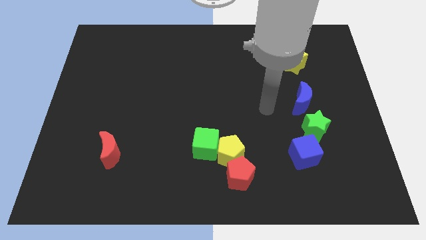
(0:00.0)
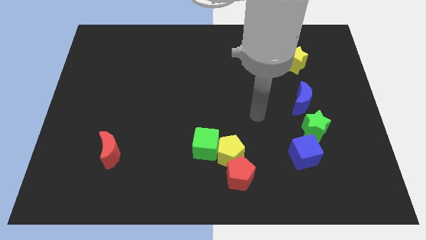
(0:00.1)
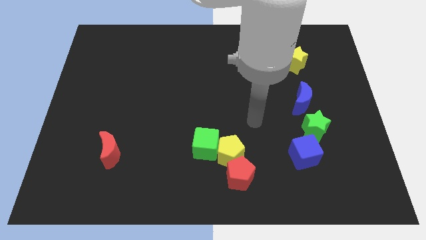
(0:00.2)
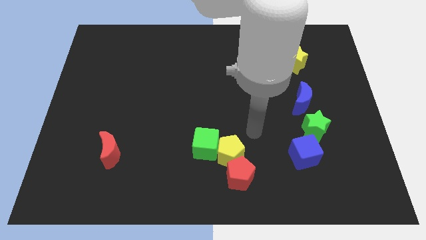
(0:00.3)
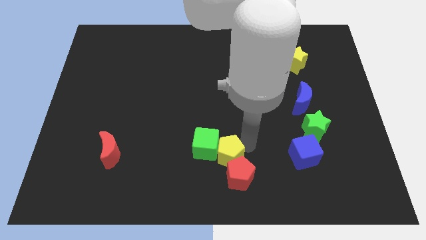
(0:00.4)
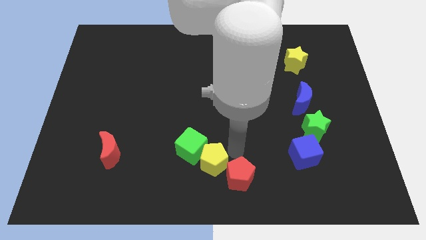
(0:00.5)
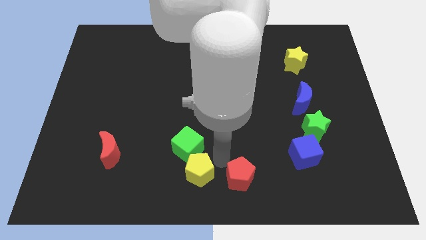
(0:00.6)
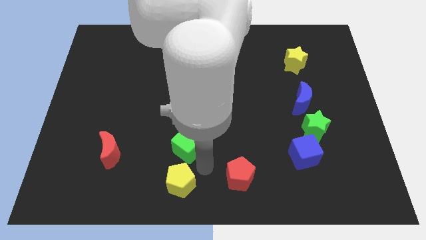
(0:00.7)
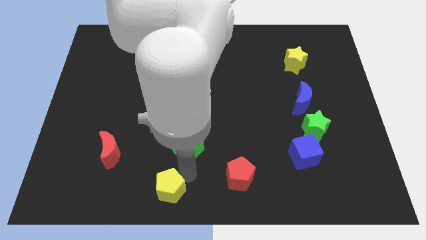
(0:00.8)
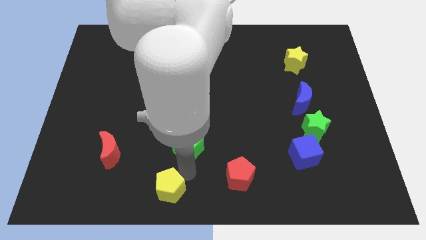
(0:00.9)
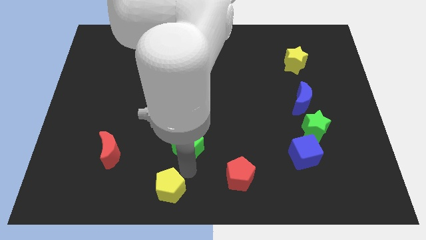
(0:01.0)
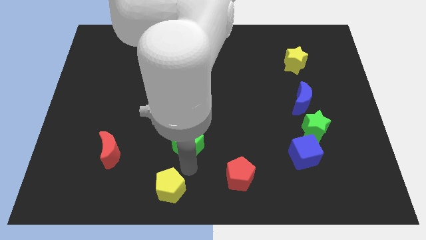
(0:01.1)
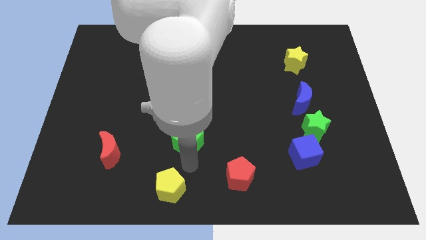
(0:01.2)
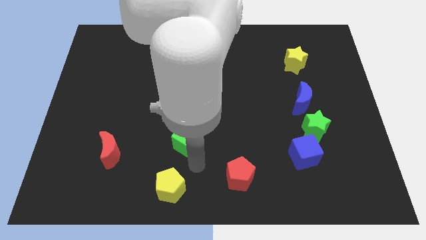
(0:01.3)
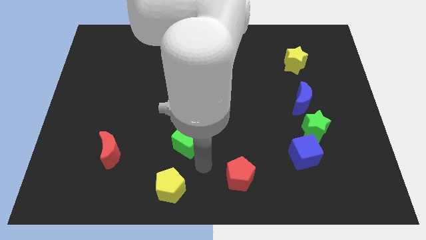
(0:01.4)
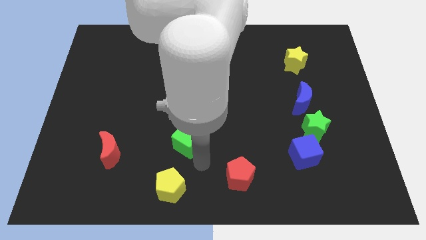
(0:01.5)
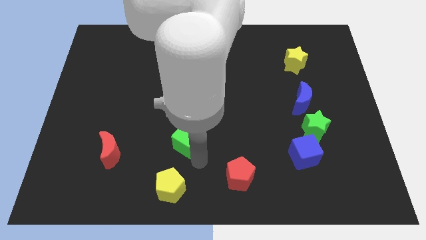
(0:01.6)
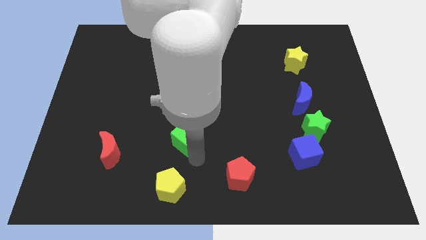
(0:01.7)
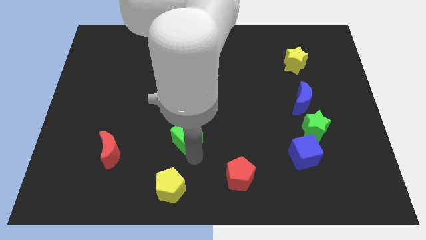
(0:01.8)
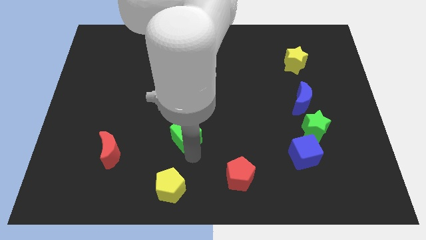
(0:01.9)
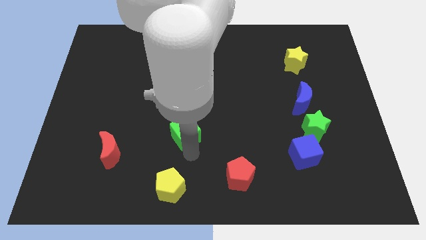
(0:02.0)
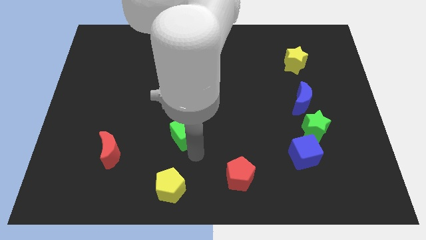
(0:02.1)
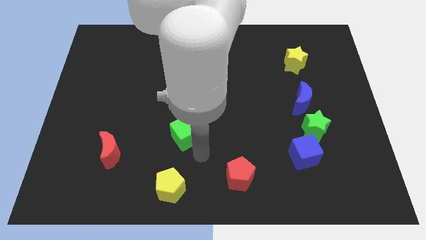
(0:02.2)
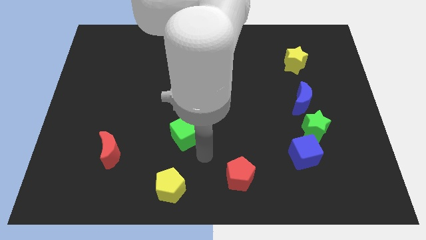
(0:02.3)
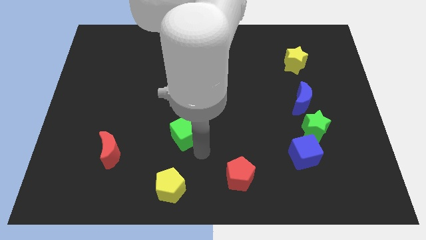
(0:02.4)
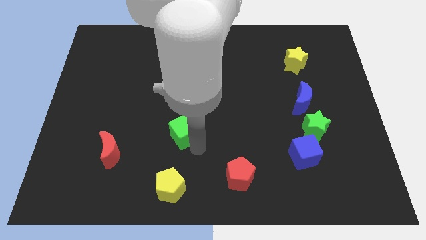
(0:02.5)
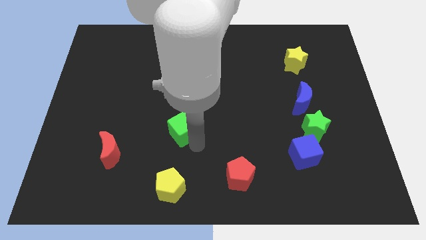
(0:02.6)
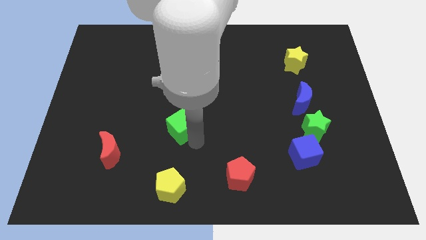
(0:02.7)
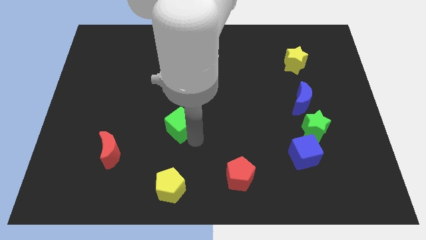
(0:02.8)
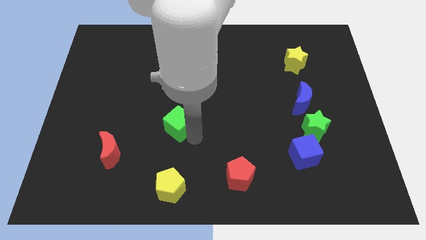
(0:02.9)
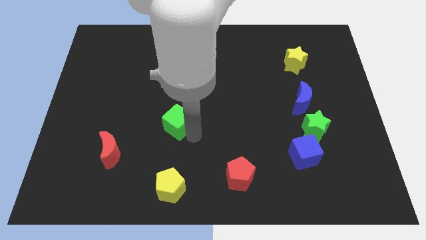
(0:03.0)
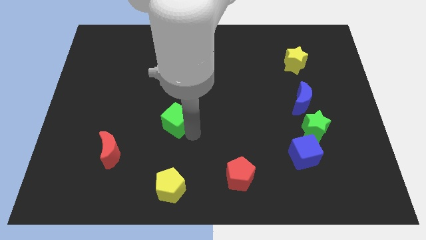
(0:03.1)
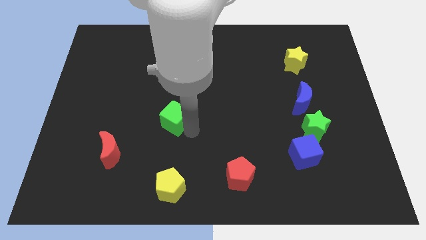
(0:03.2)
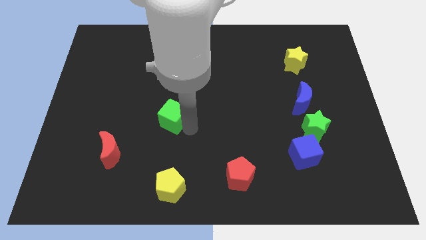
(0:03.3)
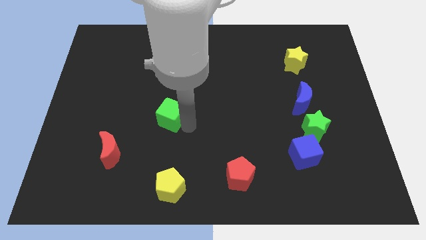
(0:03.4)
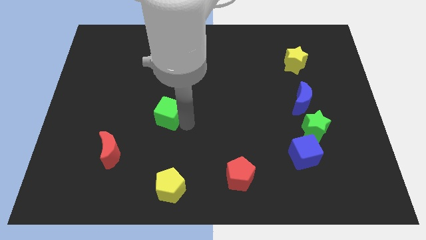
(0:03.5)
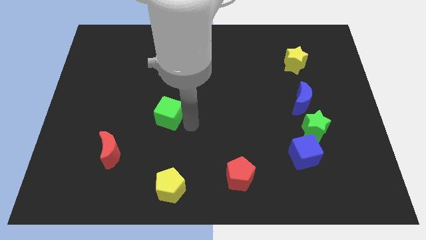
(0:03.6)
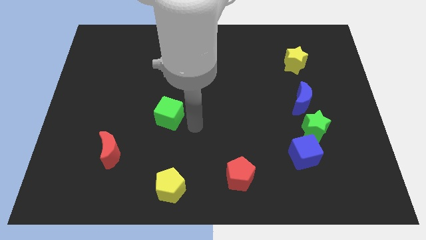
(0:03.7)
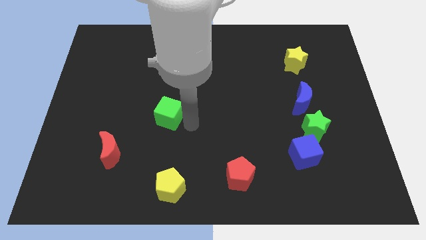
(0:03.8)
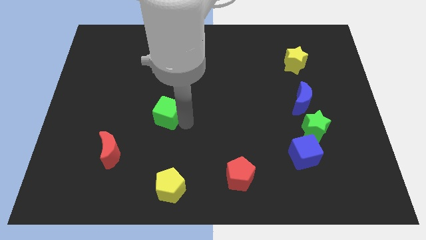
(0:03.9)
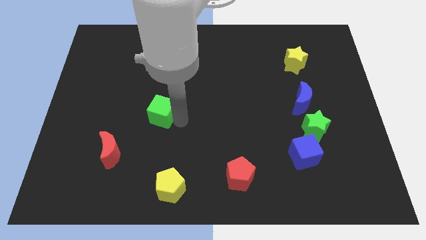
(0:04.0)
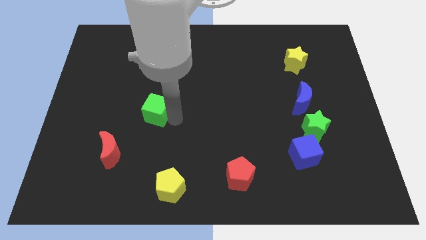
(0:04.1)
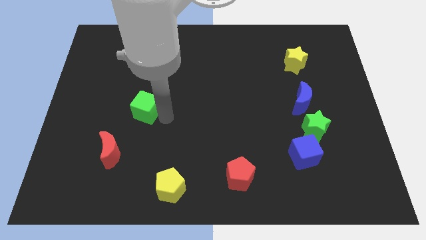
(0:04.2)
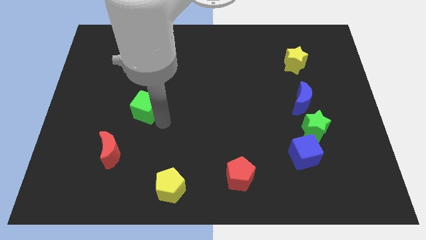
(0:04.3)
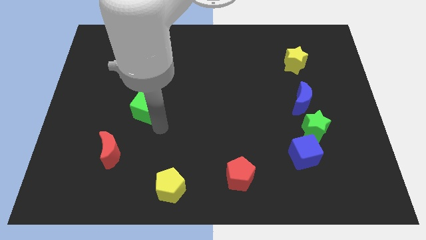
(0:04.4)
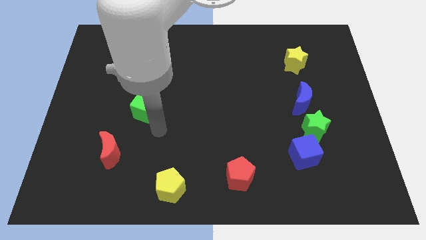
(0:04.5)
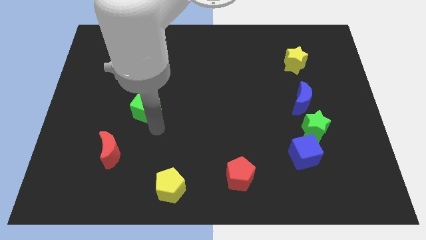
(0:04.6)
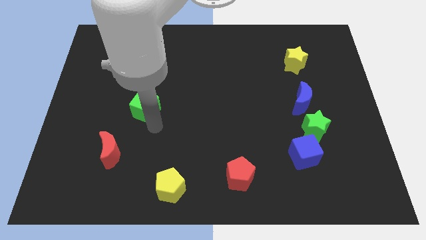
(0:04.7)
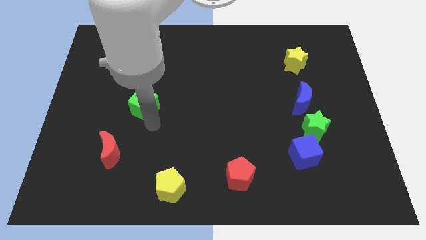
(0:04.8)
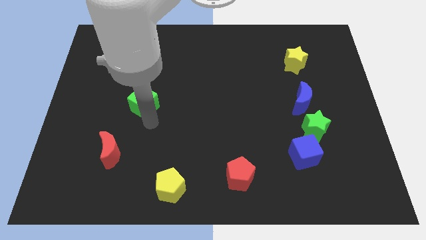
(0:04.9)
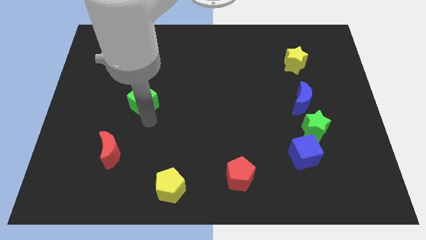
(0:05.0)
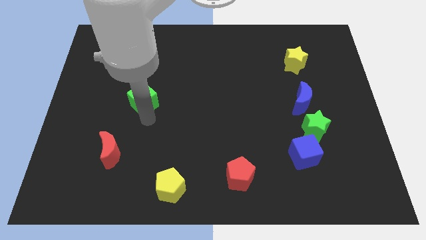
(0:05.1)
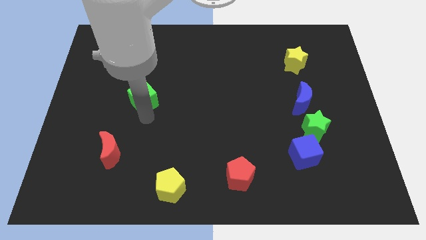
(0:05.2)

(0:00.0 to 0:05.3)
push the green cube up and to the left diagonally

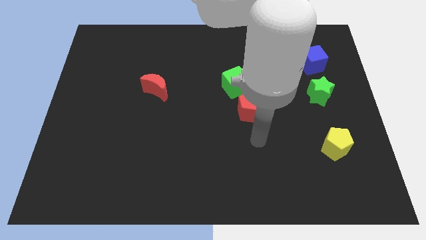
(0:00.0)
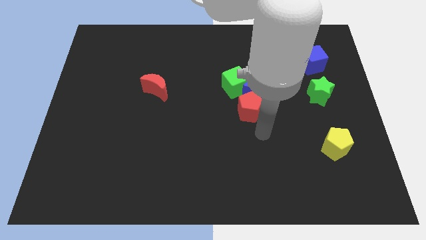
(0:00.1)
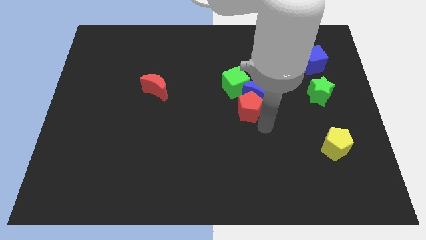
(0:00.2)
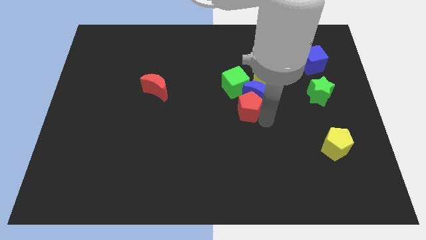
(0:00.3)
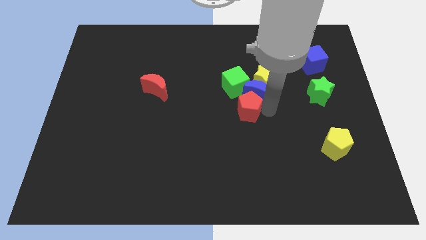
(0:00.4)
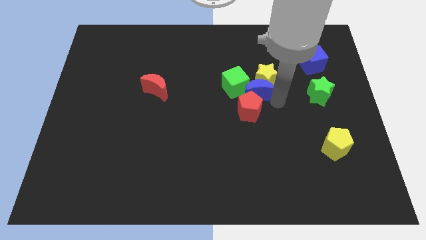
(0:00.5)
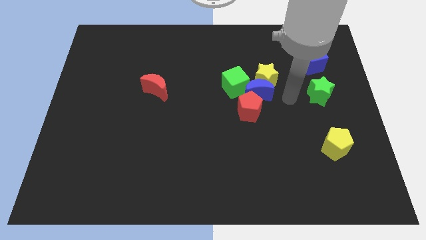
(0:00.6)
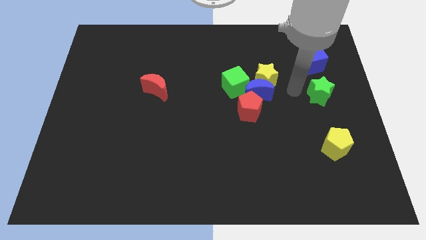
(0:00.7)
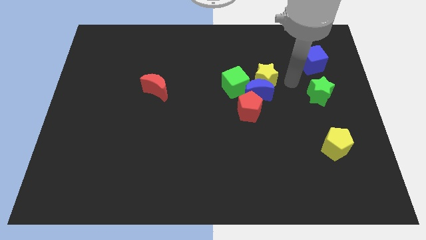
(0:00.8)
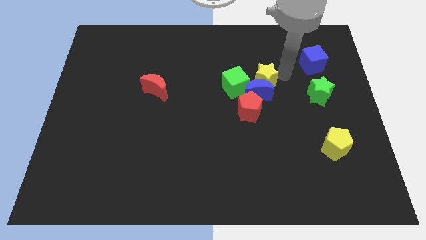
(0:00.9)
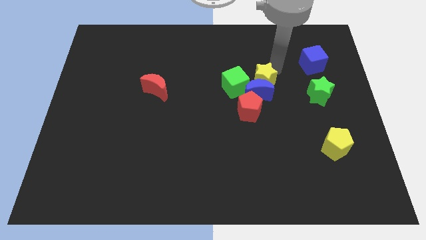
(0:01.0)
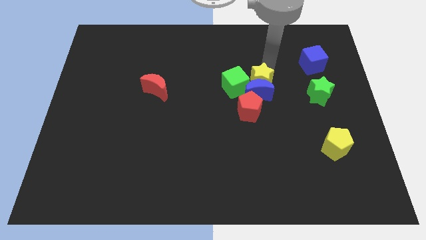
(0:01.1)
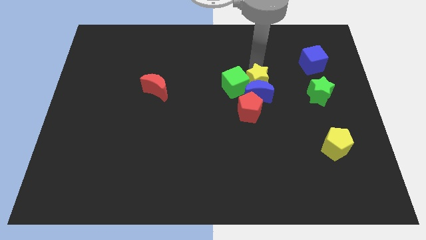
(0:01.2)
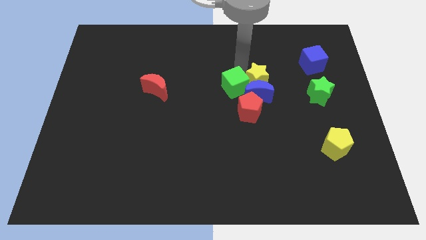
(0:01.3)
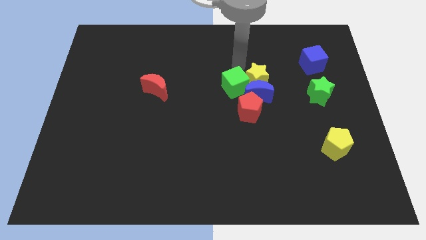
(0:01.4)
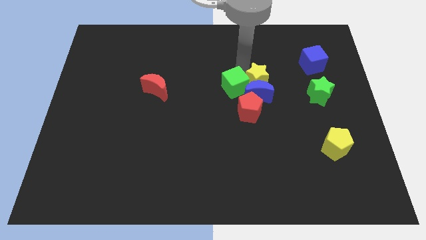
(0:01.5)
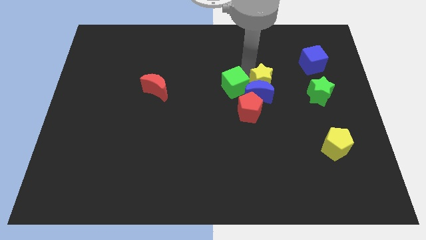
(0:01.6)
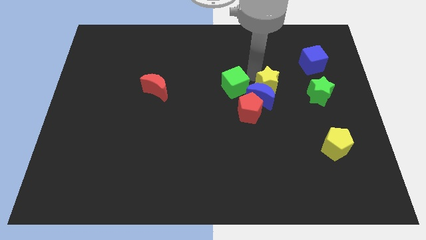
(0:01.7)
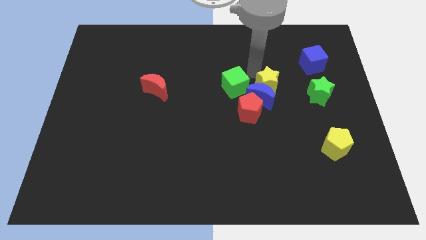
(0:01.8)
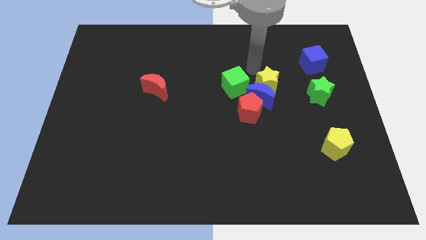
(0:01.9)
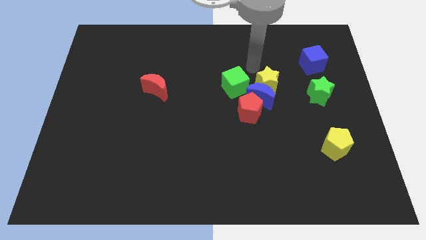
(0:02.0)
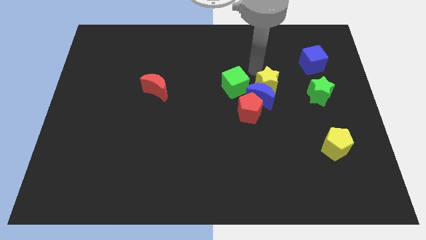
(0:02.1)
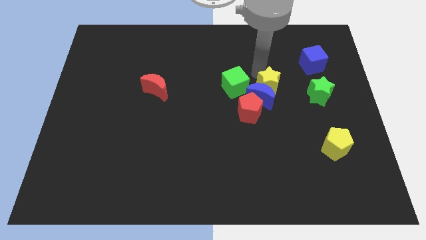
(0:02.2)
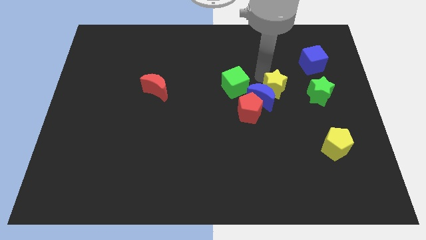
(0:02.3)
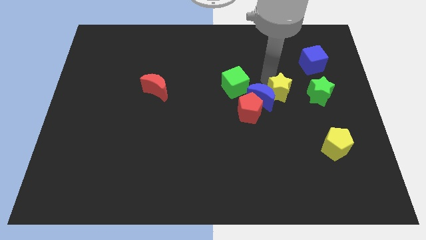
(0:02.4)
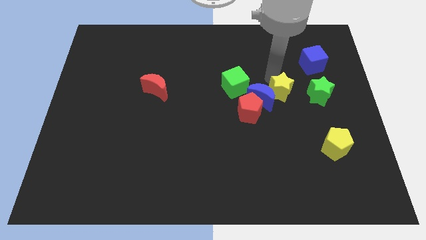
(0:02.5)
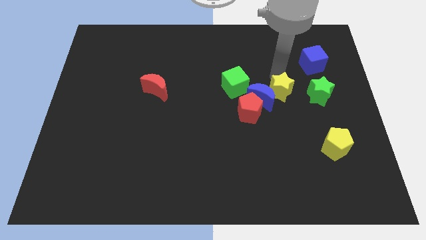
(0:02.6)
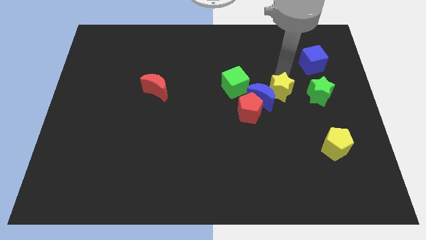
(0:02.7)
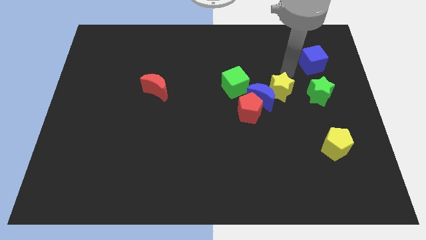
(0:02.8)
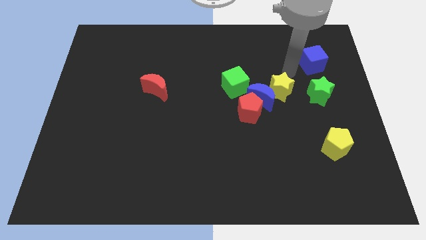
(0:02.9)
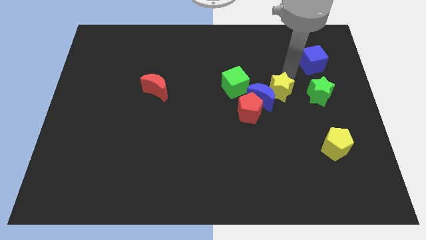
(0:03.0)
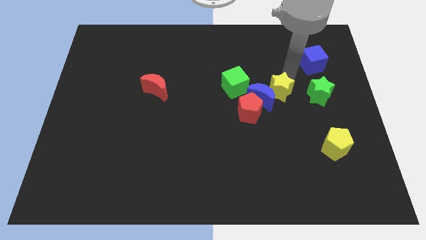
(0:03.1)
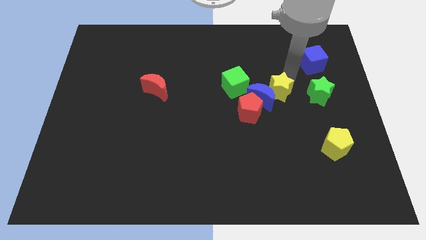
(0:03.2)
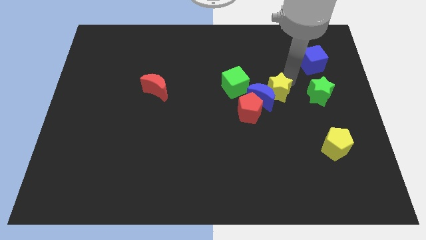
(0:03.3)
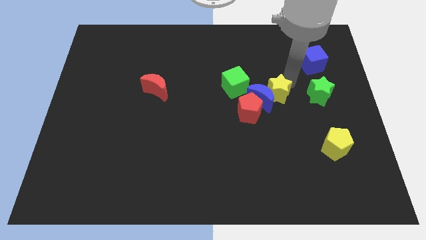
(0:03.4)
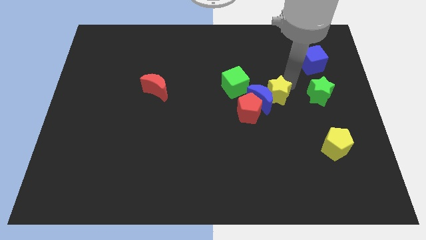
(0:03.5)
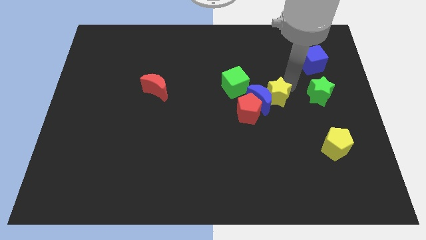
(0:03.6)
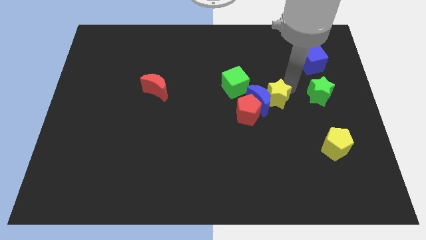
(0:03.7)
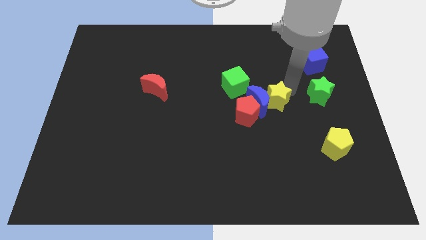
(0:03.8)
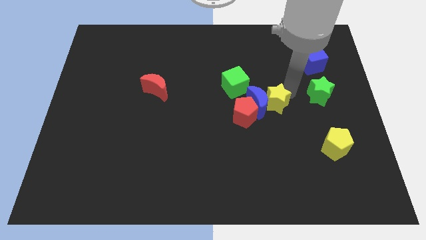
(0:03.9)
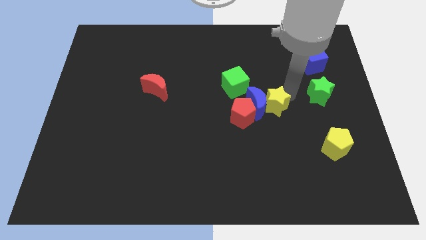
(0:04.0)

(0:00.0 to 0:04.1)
push the yellow star somewhat downwards
